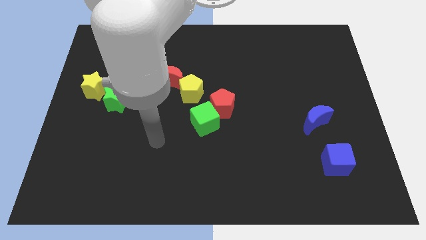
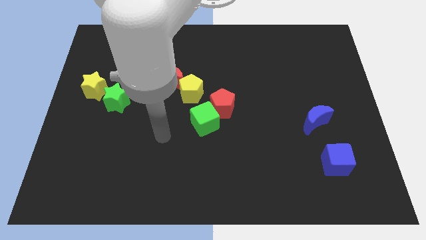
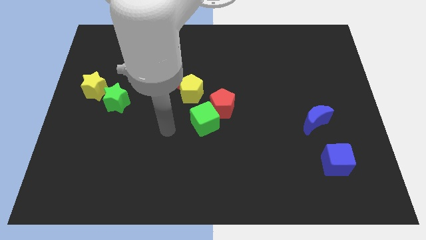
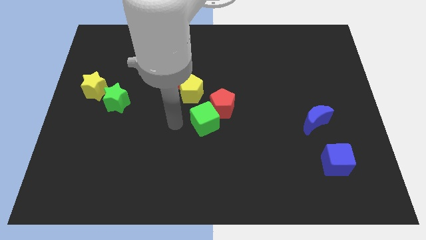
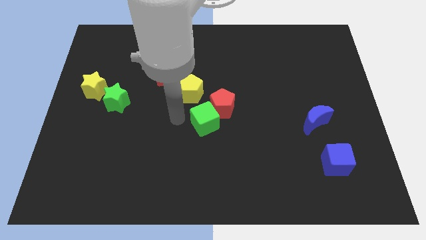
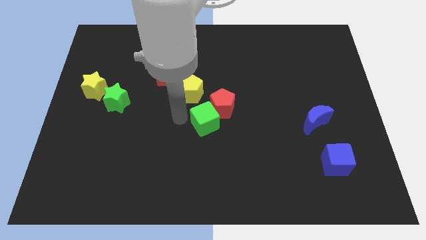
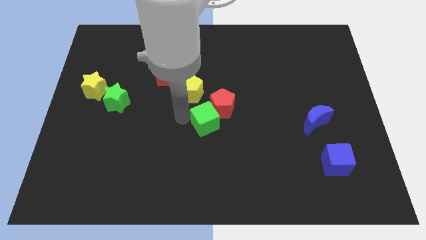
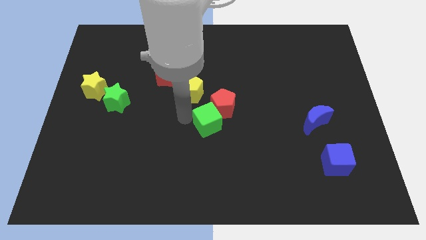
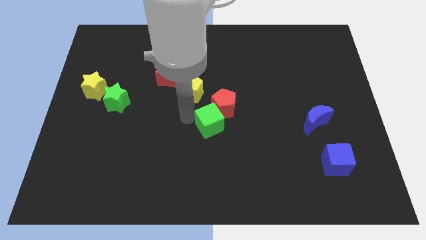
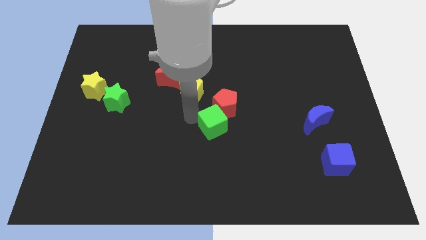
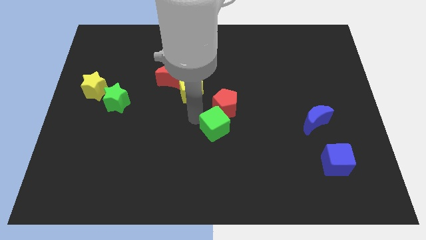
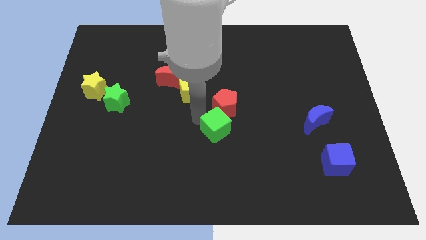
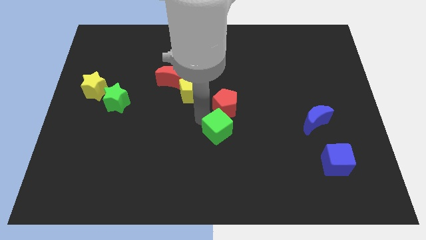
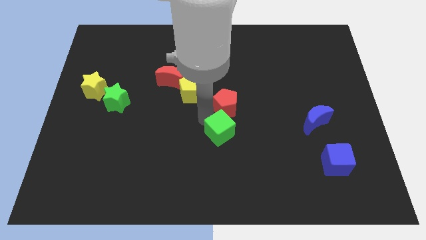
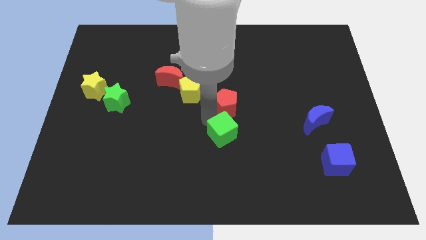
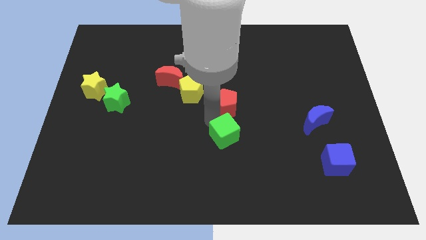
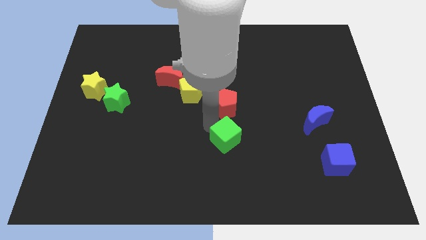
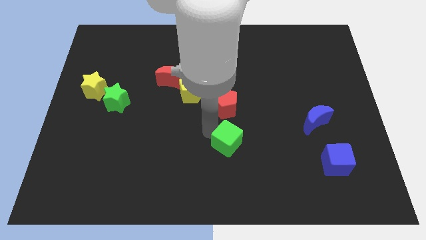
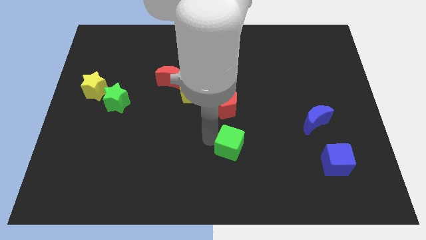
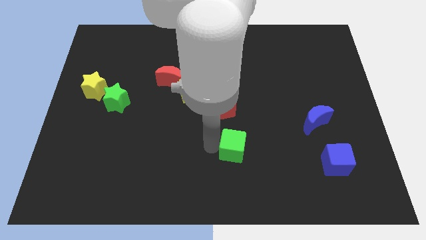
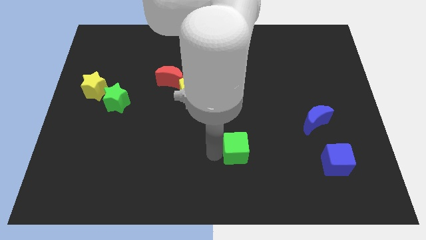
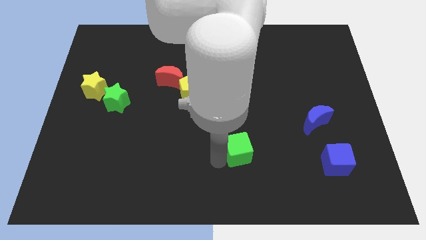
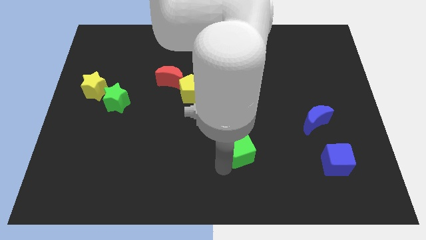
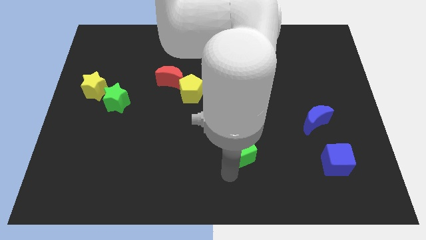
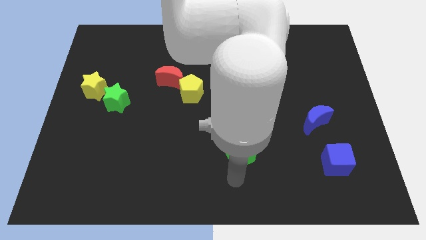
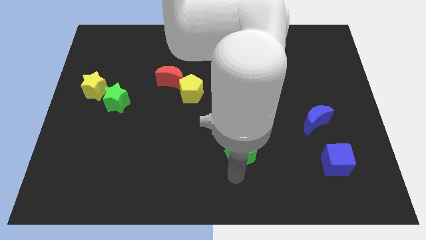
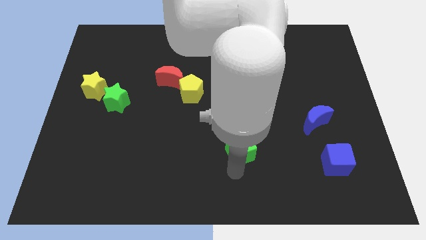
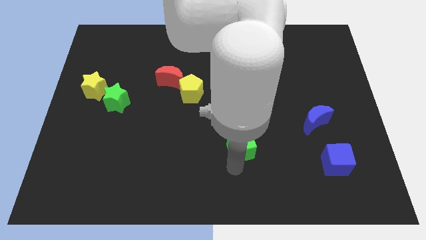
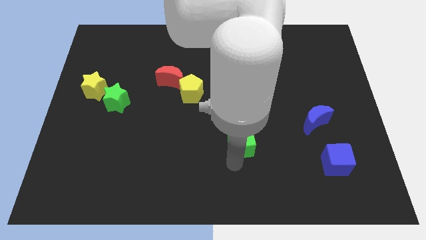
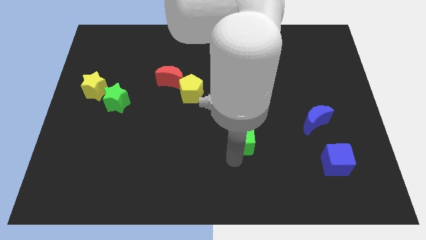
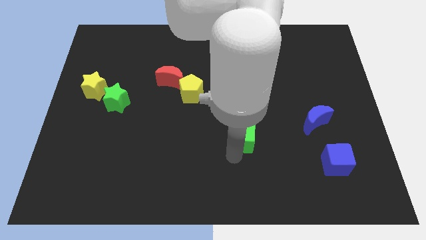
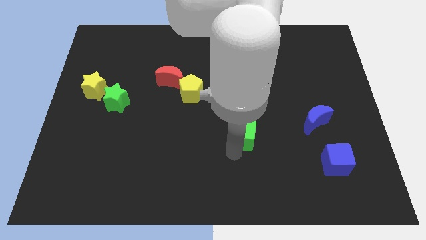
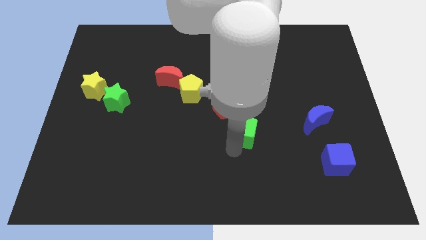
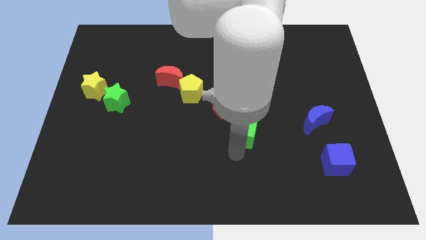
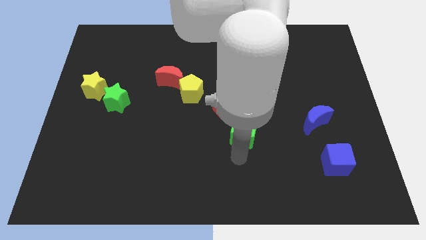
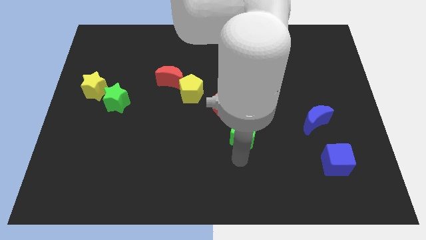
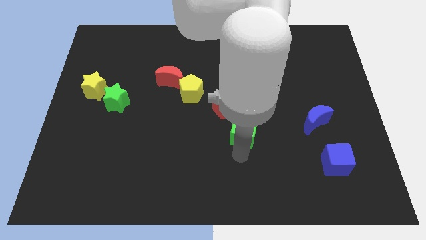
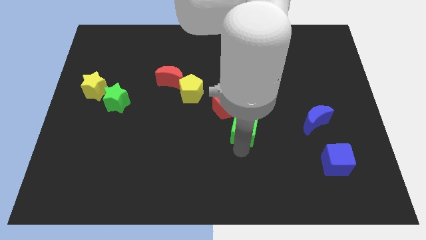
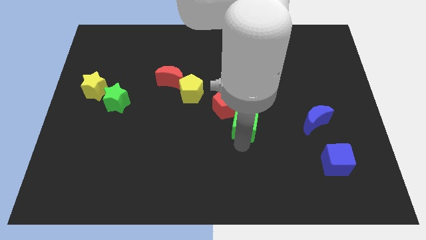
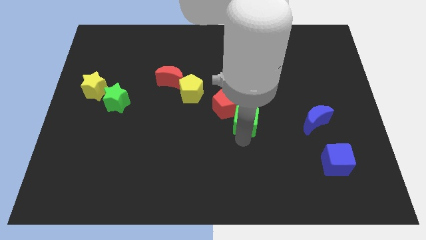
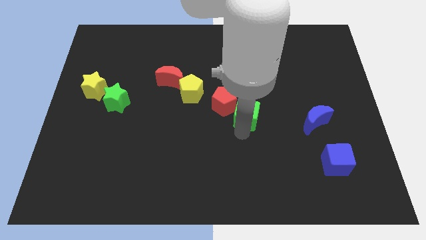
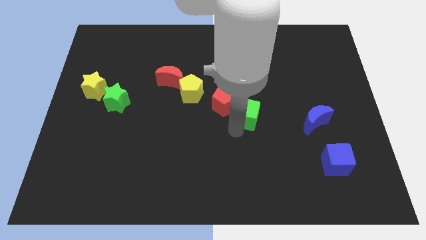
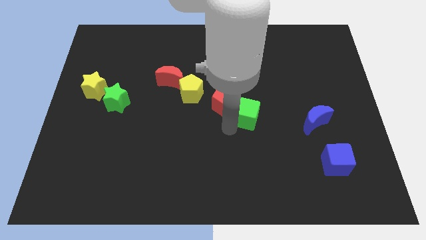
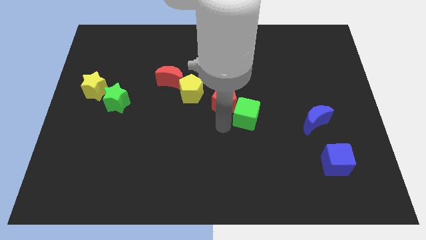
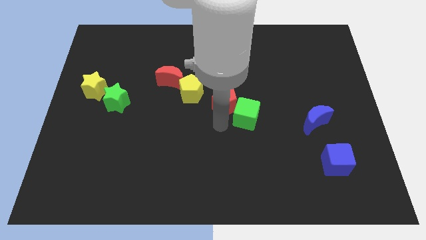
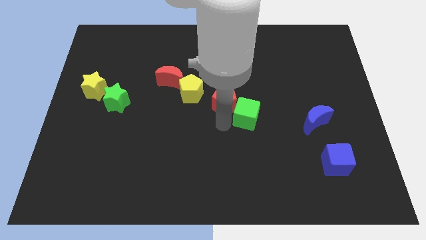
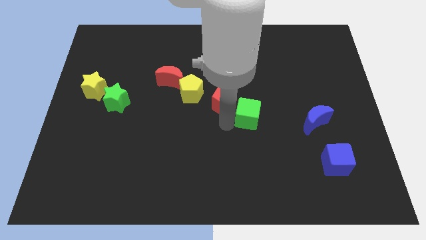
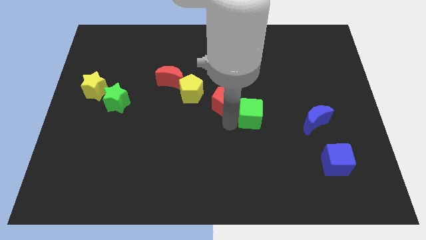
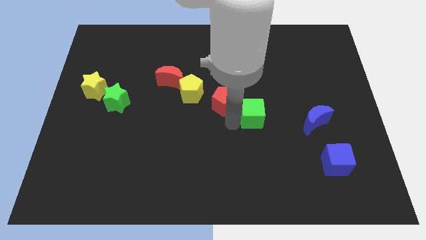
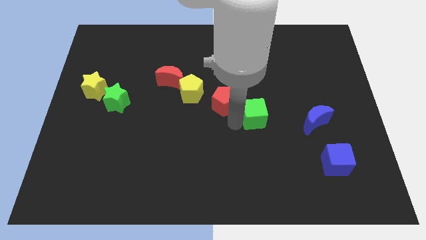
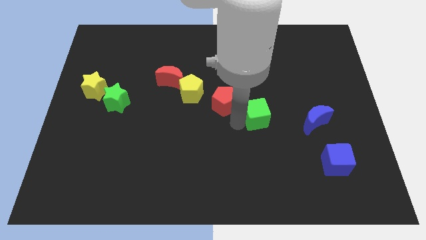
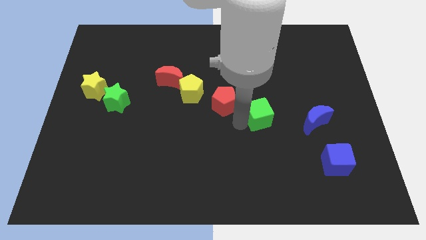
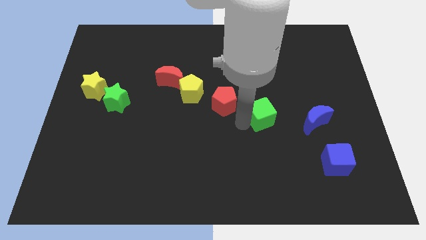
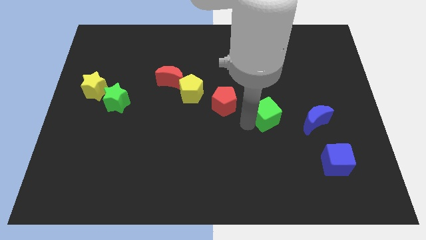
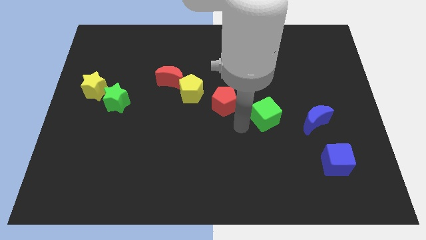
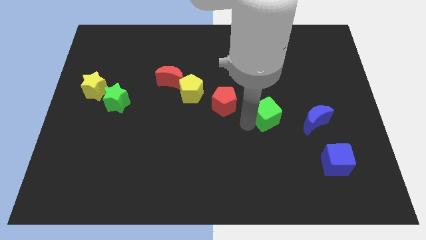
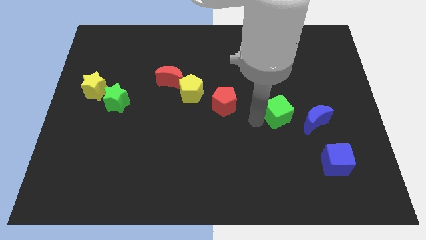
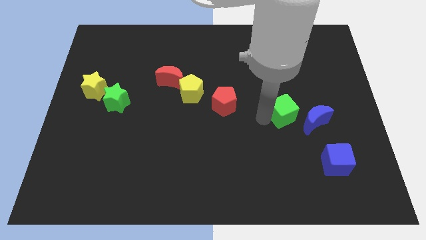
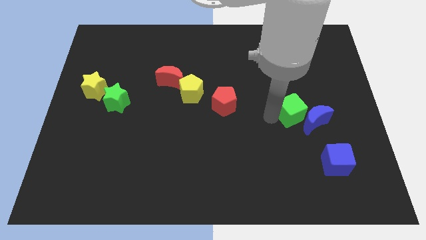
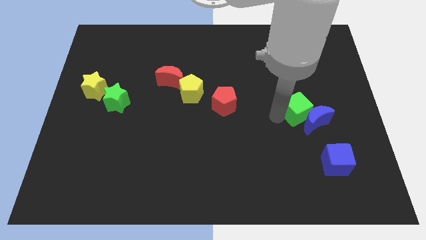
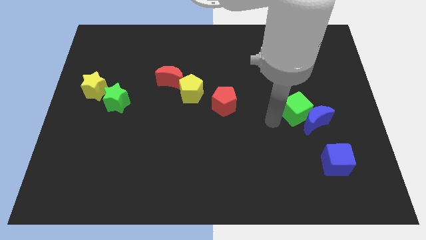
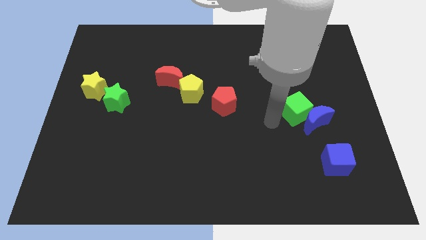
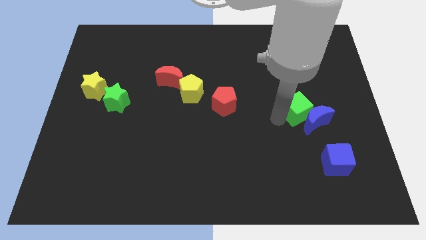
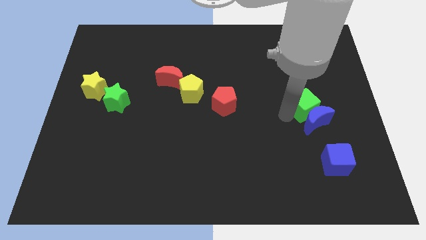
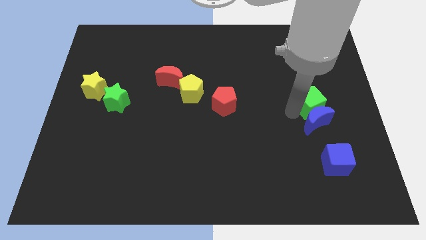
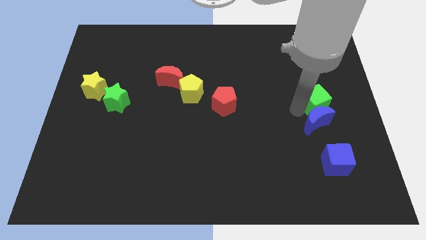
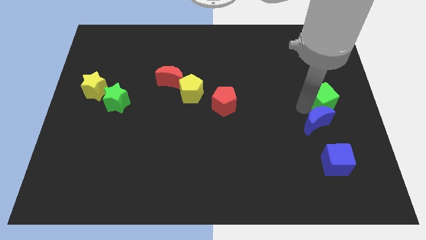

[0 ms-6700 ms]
move the green cube to the center right
